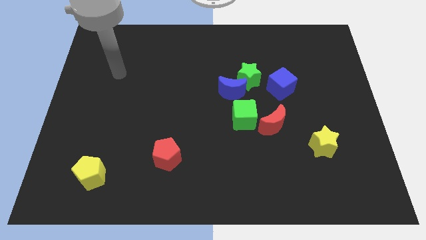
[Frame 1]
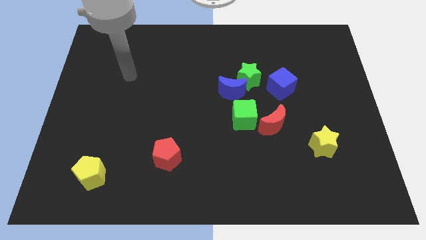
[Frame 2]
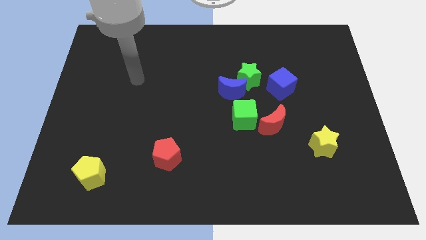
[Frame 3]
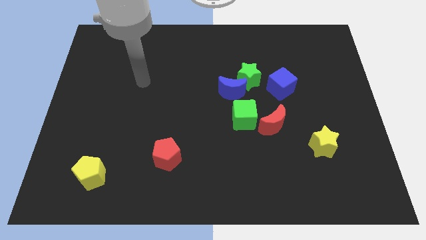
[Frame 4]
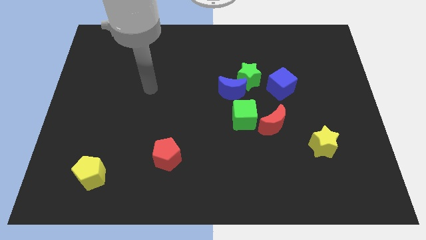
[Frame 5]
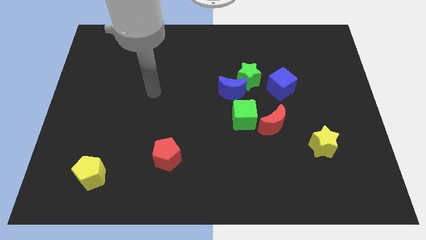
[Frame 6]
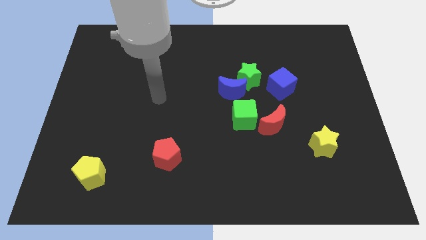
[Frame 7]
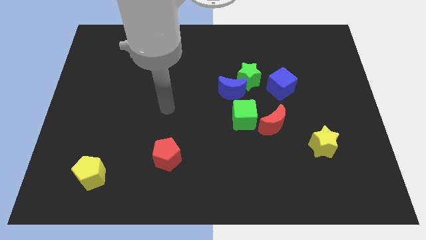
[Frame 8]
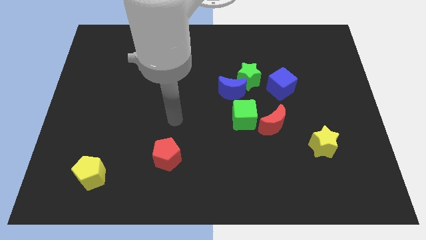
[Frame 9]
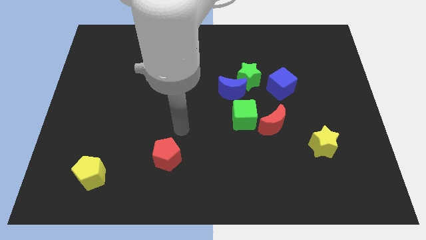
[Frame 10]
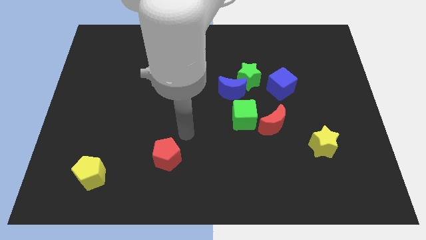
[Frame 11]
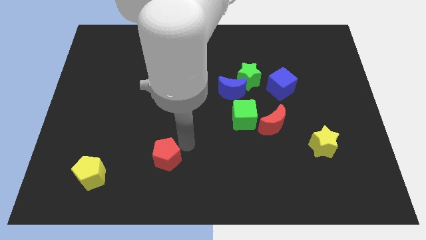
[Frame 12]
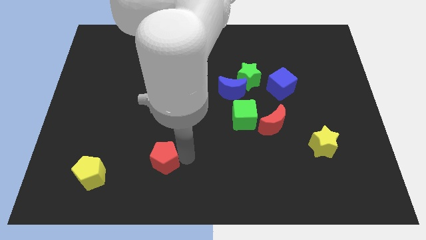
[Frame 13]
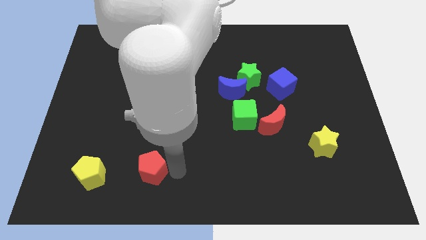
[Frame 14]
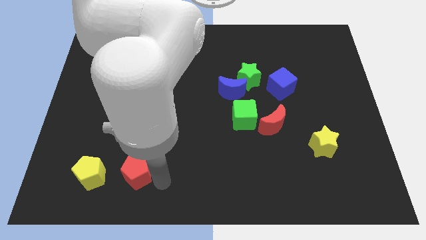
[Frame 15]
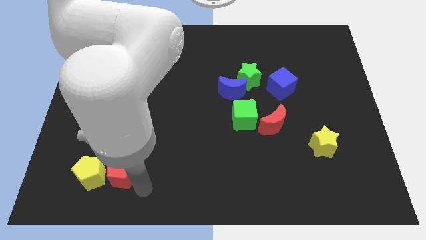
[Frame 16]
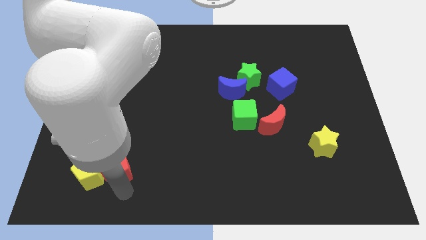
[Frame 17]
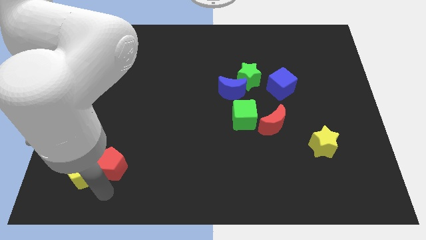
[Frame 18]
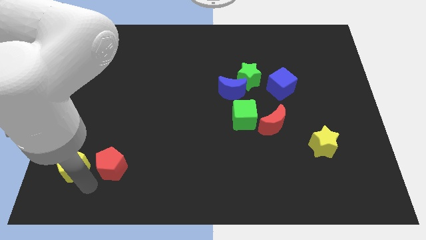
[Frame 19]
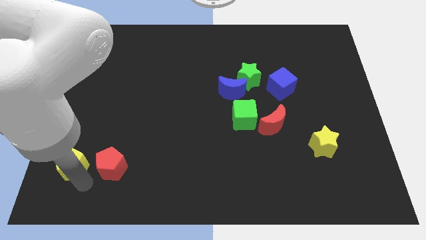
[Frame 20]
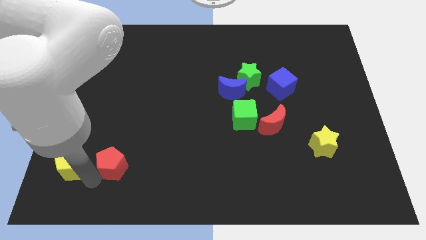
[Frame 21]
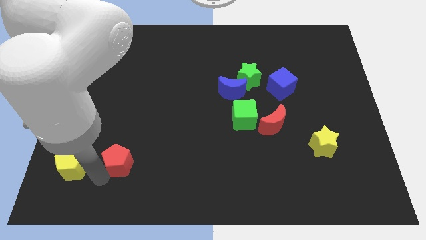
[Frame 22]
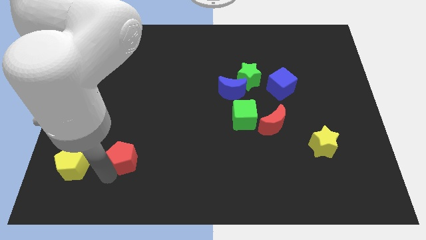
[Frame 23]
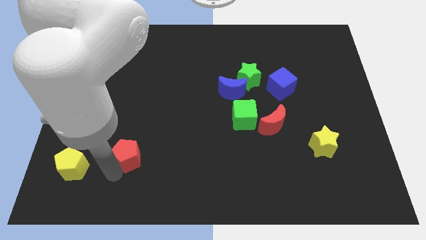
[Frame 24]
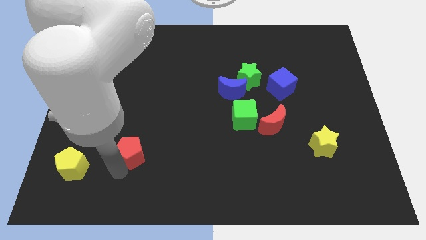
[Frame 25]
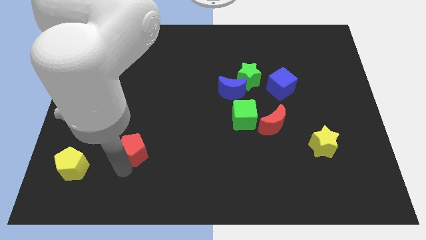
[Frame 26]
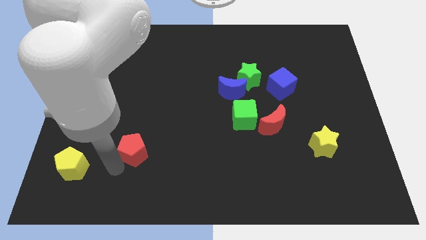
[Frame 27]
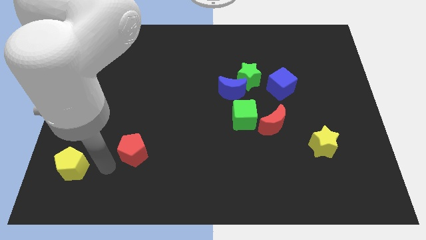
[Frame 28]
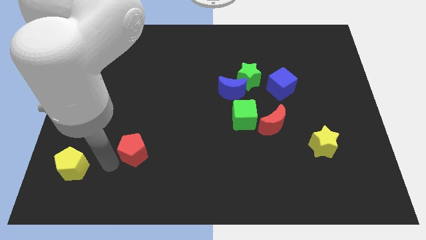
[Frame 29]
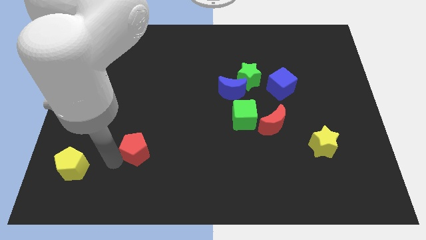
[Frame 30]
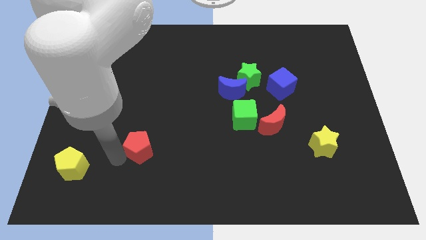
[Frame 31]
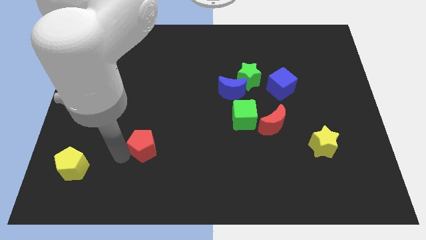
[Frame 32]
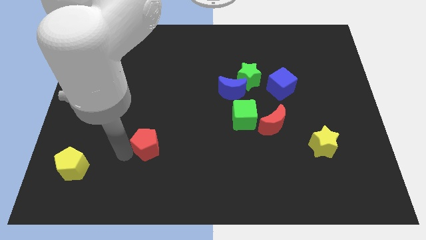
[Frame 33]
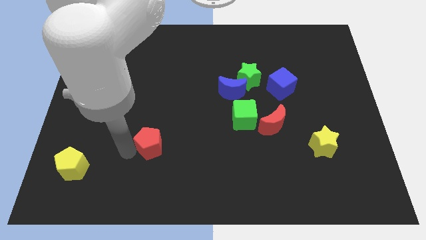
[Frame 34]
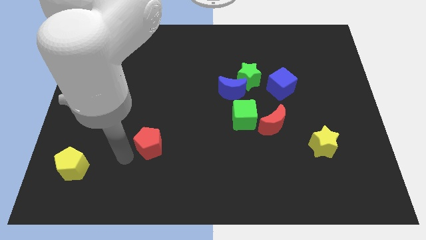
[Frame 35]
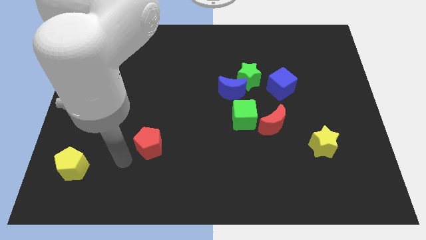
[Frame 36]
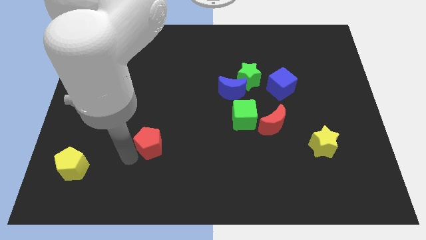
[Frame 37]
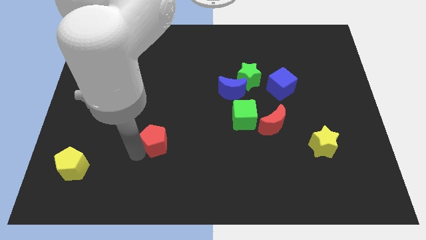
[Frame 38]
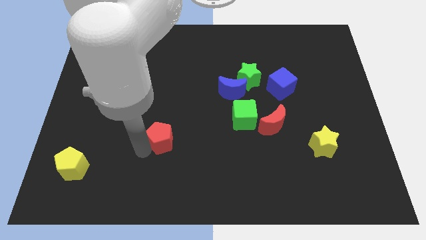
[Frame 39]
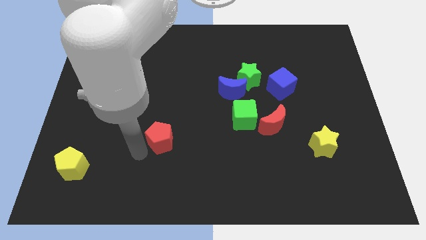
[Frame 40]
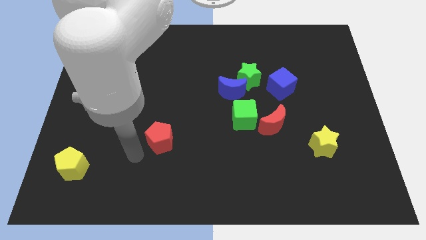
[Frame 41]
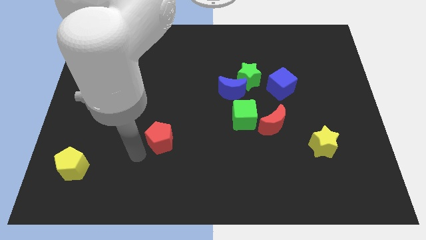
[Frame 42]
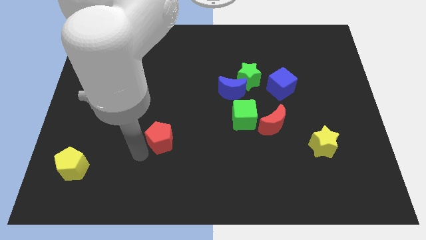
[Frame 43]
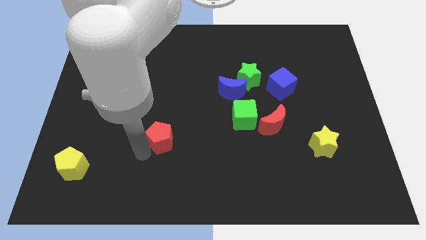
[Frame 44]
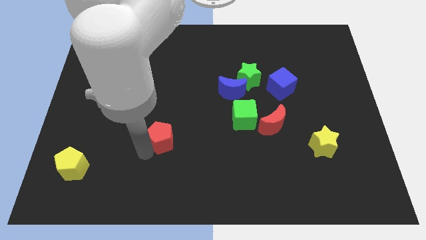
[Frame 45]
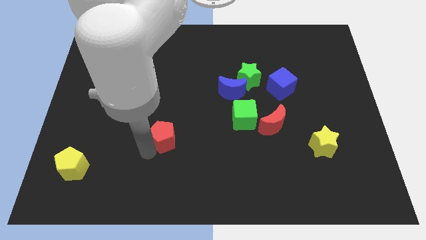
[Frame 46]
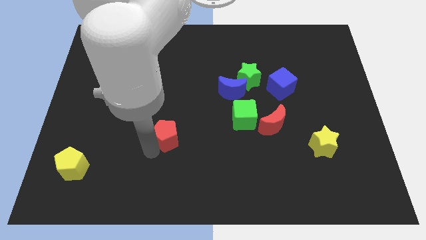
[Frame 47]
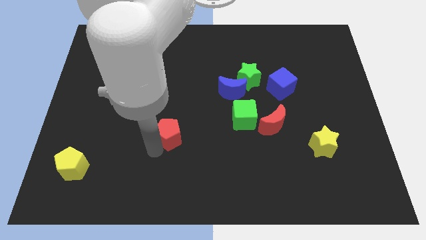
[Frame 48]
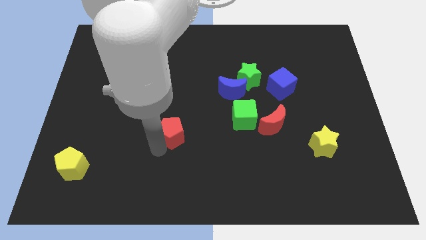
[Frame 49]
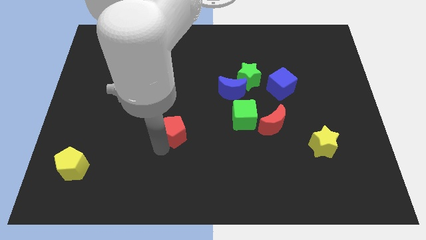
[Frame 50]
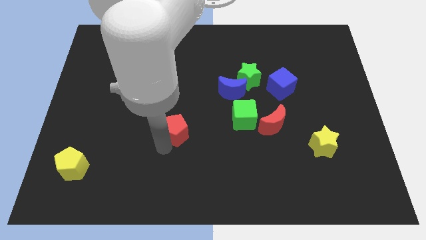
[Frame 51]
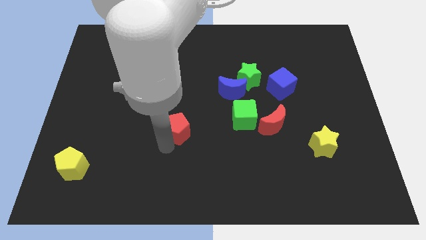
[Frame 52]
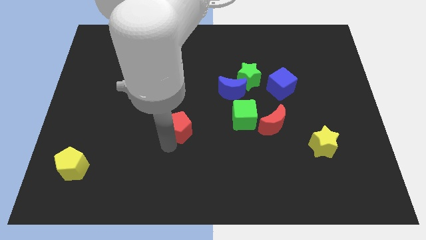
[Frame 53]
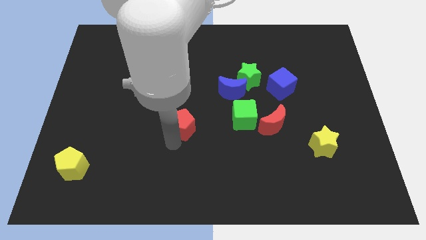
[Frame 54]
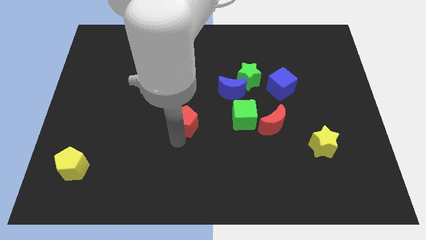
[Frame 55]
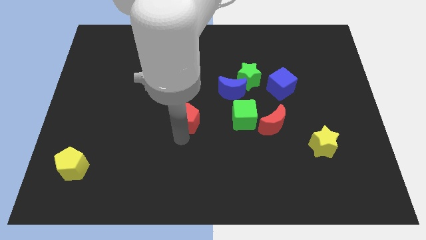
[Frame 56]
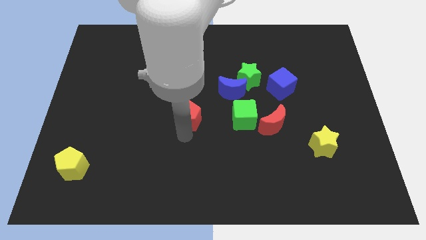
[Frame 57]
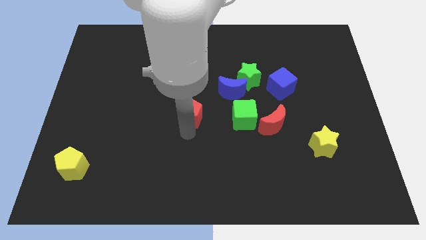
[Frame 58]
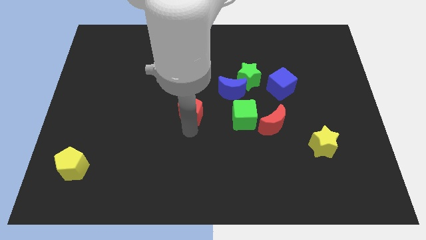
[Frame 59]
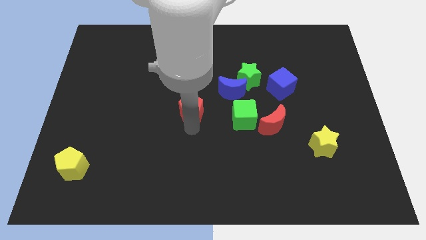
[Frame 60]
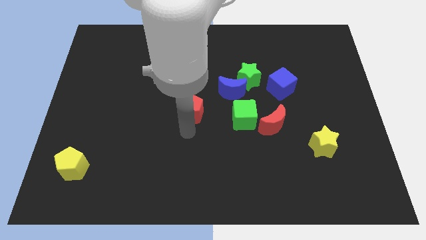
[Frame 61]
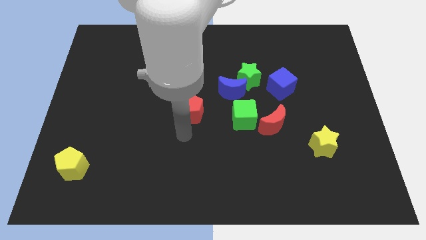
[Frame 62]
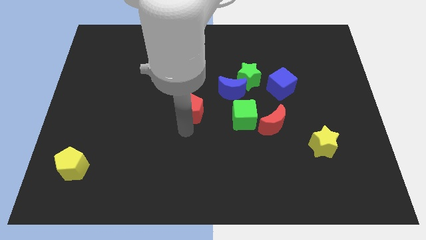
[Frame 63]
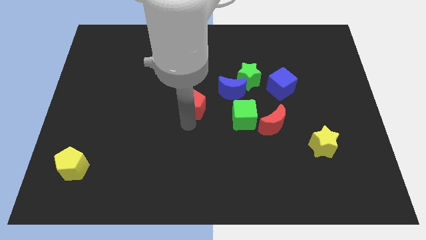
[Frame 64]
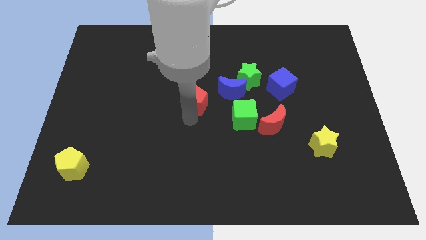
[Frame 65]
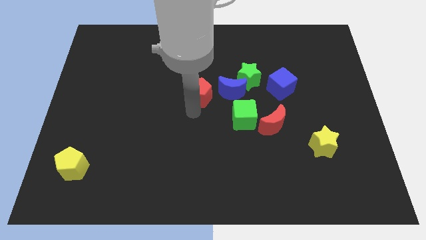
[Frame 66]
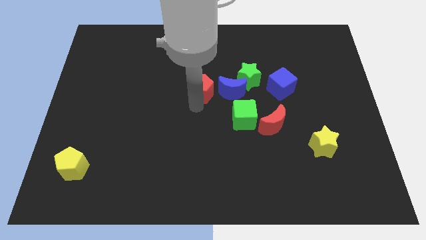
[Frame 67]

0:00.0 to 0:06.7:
put the red pentagon to the left of the green star
